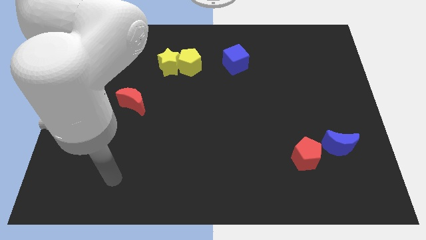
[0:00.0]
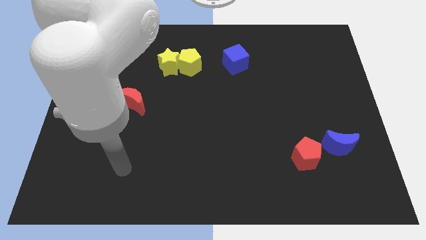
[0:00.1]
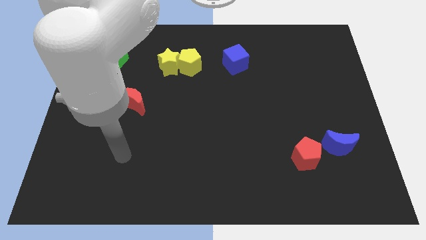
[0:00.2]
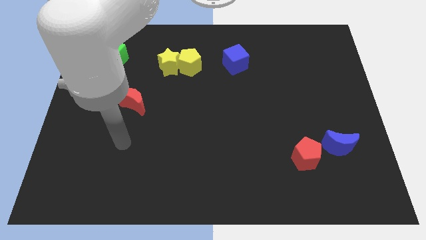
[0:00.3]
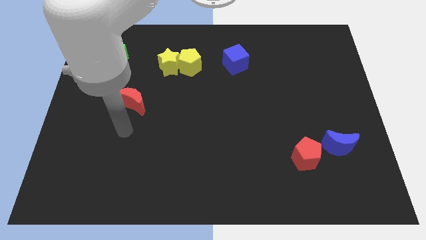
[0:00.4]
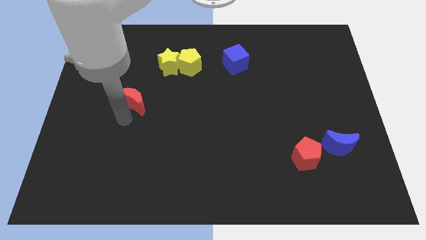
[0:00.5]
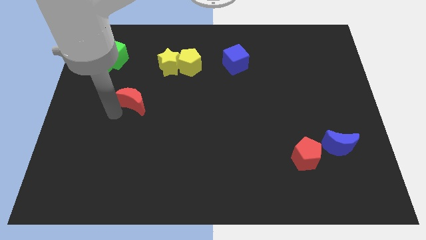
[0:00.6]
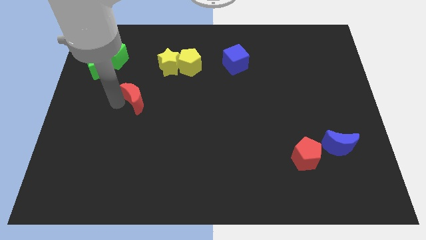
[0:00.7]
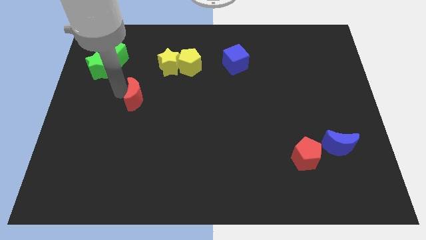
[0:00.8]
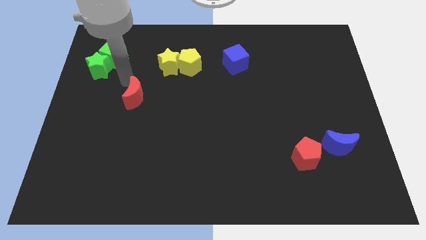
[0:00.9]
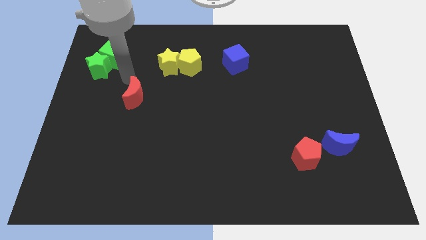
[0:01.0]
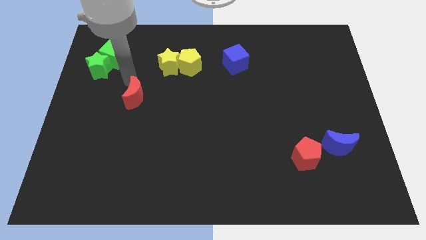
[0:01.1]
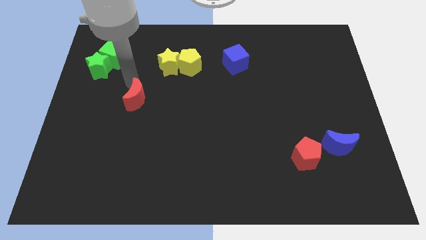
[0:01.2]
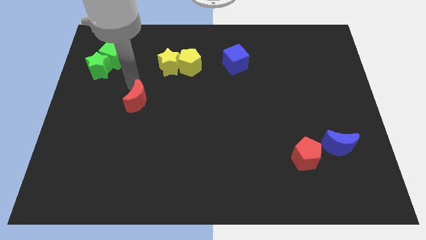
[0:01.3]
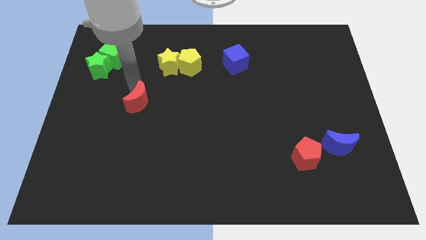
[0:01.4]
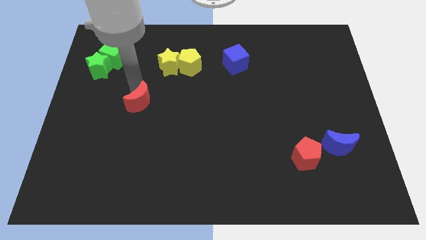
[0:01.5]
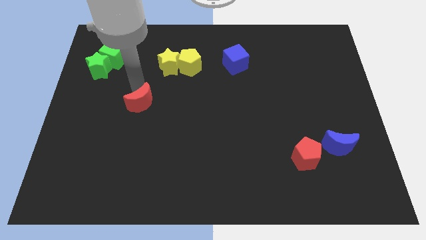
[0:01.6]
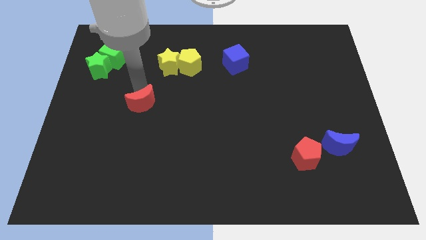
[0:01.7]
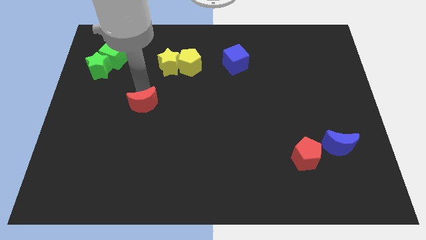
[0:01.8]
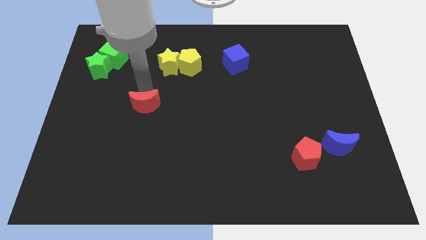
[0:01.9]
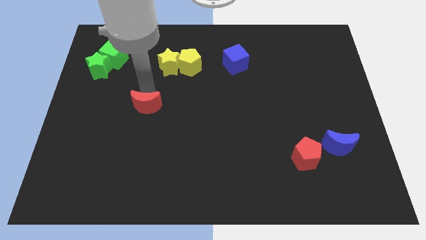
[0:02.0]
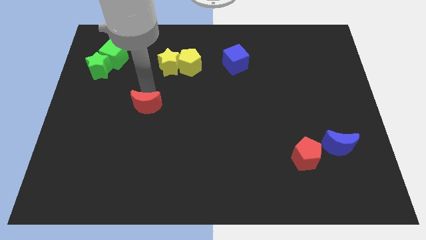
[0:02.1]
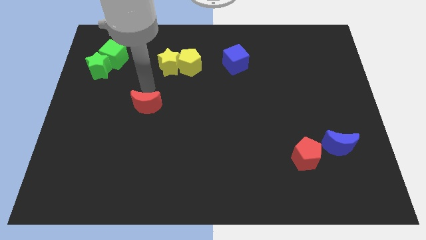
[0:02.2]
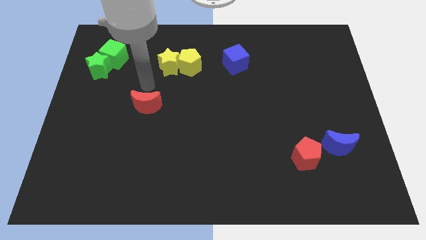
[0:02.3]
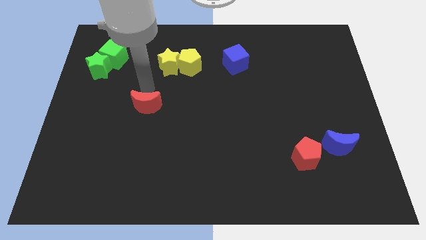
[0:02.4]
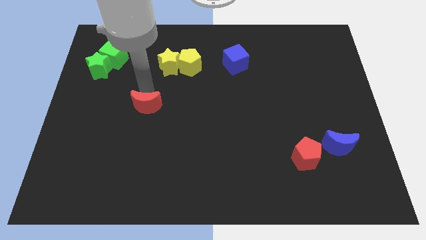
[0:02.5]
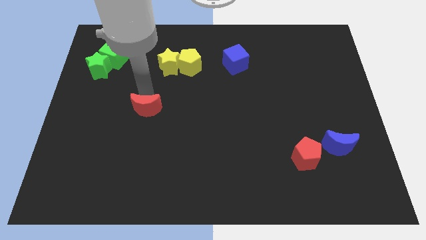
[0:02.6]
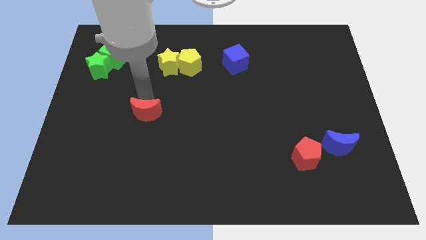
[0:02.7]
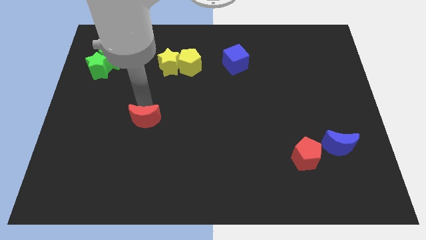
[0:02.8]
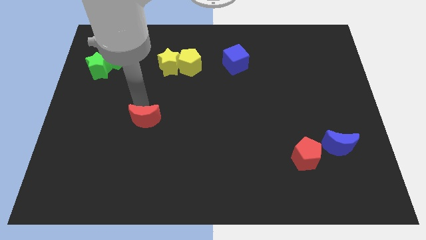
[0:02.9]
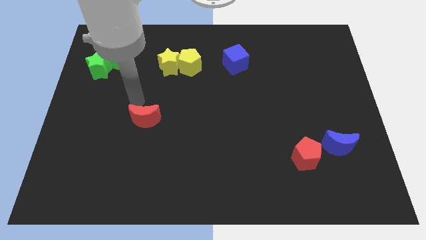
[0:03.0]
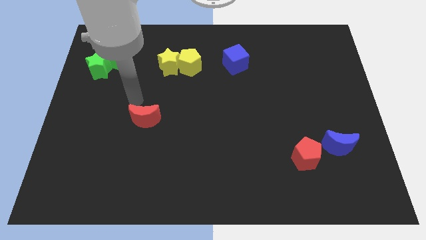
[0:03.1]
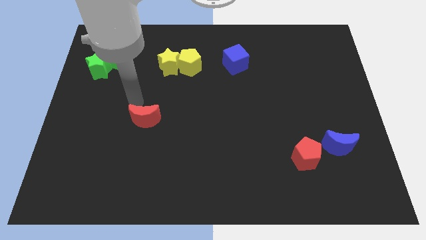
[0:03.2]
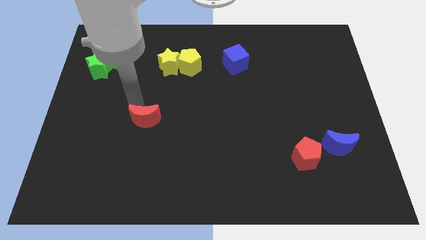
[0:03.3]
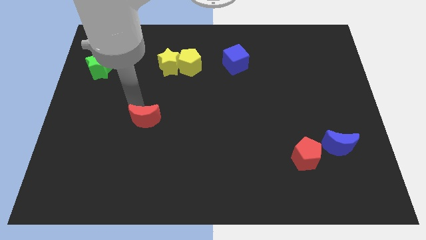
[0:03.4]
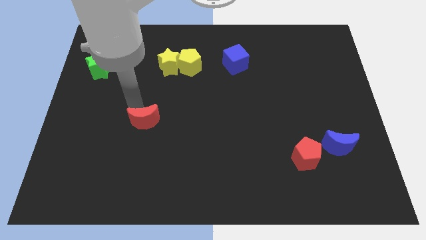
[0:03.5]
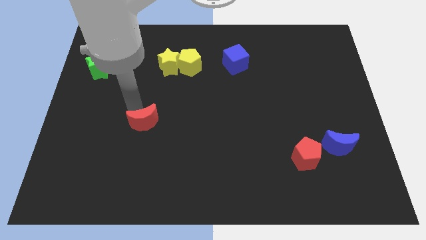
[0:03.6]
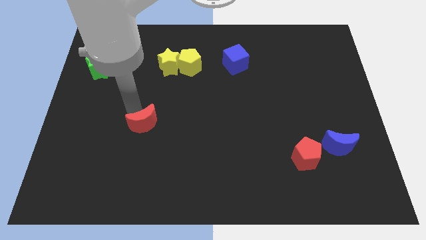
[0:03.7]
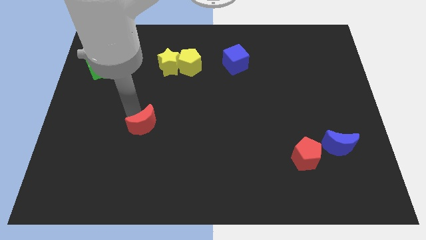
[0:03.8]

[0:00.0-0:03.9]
push the red moon down and right diagonally a bit

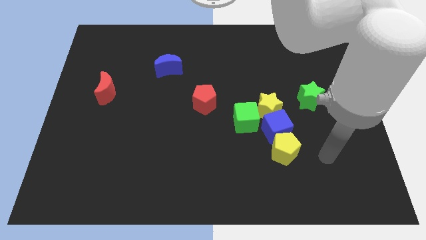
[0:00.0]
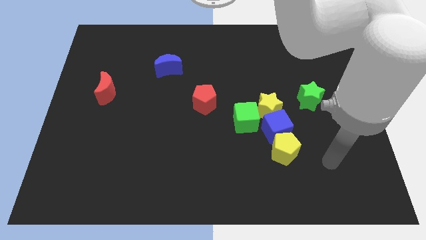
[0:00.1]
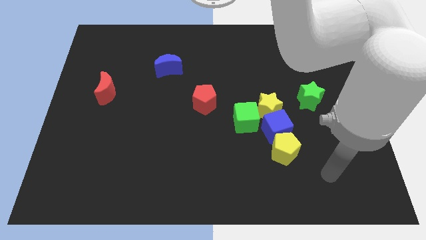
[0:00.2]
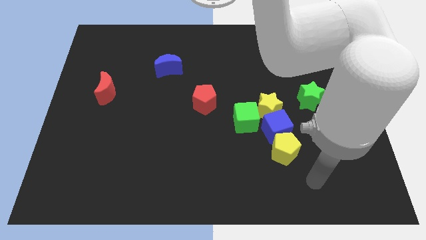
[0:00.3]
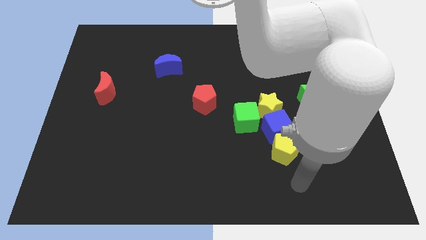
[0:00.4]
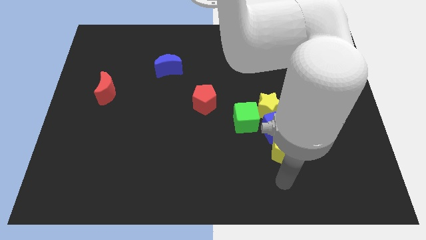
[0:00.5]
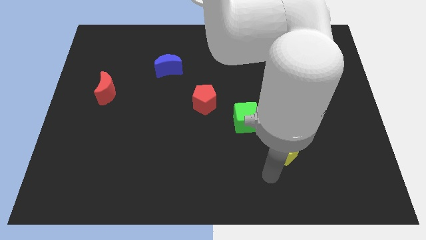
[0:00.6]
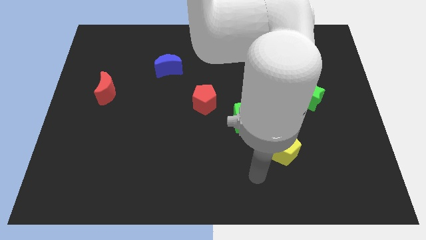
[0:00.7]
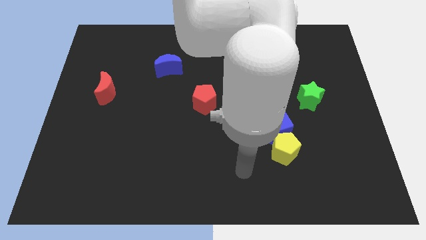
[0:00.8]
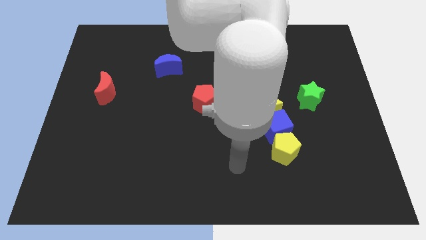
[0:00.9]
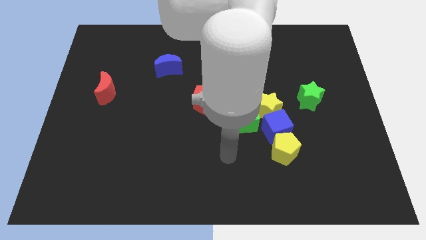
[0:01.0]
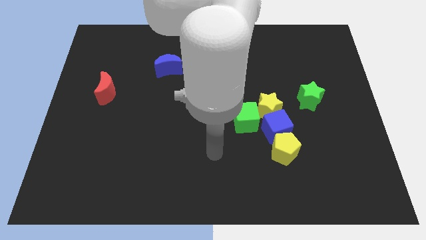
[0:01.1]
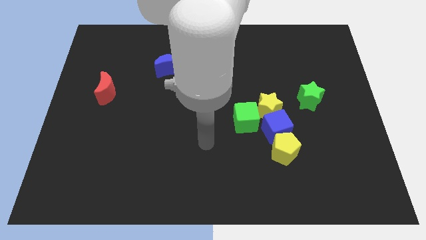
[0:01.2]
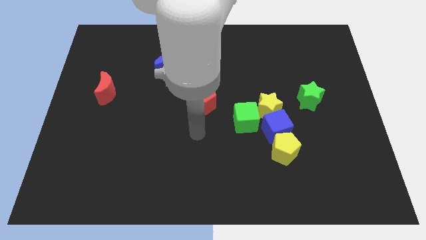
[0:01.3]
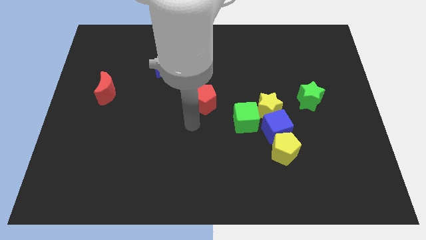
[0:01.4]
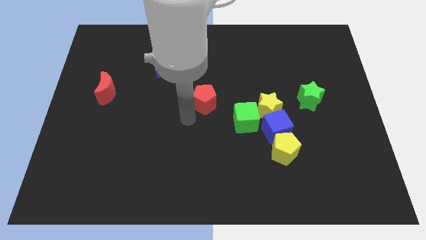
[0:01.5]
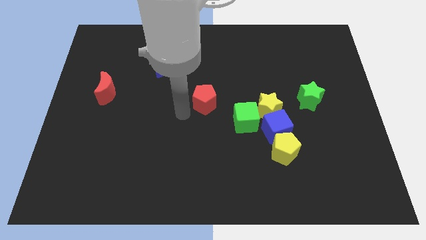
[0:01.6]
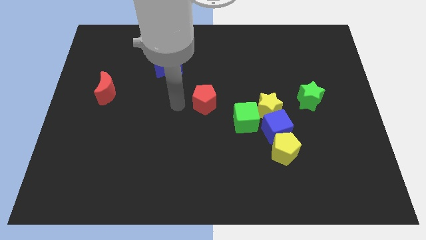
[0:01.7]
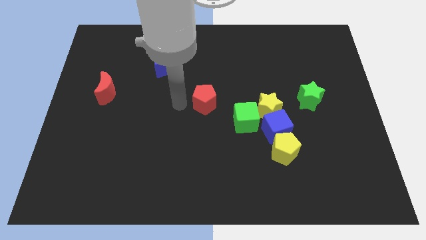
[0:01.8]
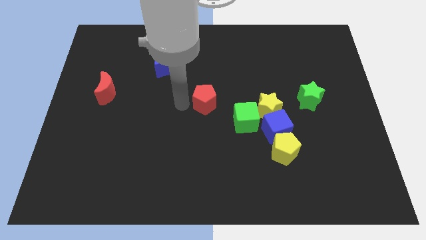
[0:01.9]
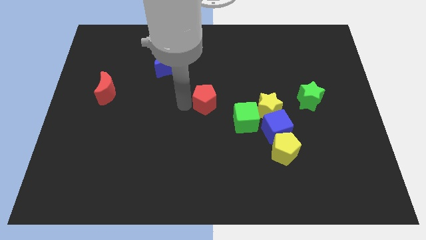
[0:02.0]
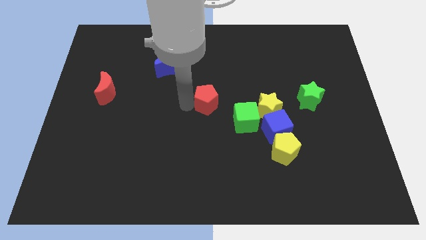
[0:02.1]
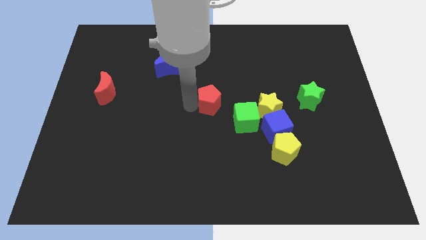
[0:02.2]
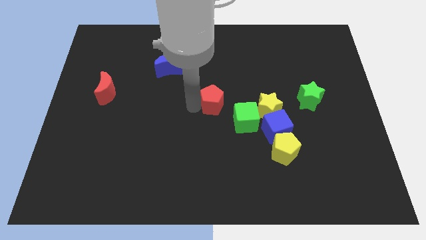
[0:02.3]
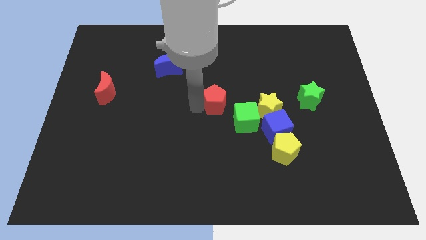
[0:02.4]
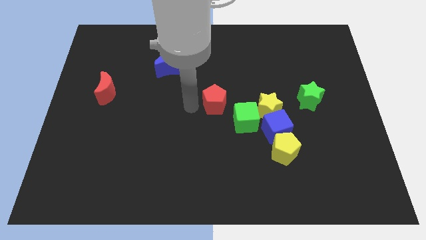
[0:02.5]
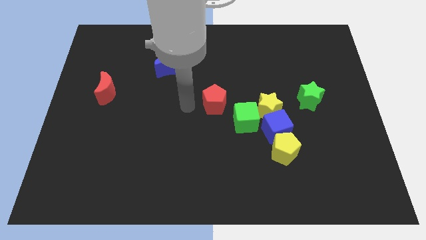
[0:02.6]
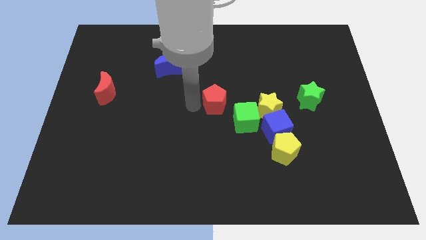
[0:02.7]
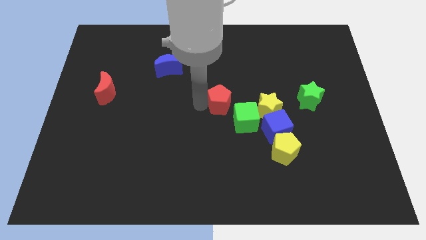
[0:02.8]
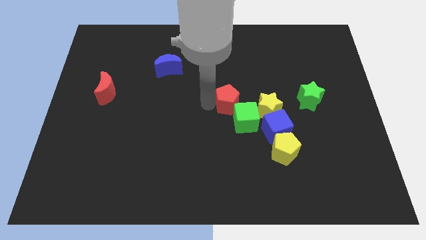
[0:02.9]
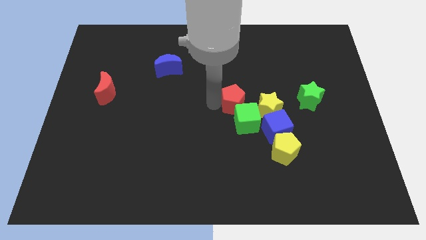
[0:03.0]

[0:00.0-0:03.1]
move the red pentagon a little bit right

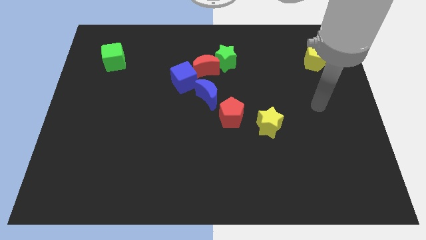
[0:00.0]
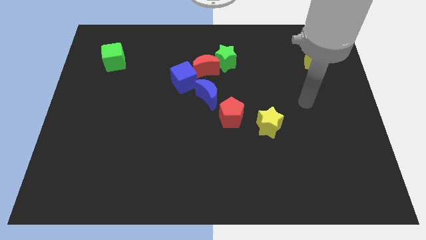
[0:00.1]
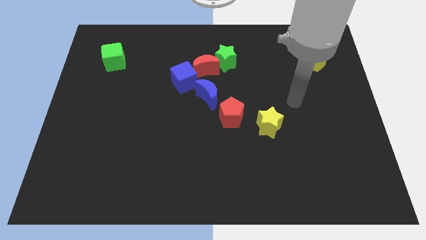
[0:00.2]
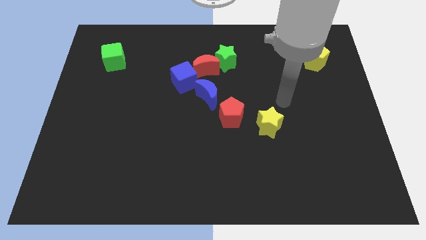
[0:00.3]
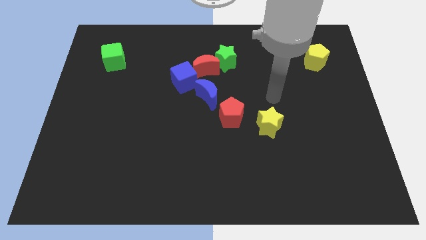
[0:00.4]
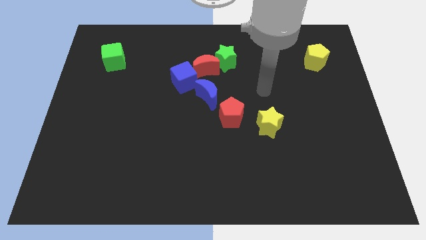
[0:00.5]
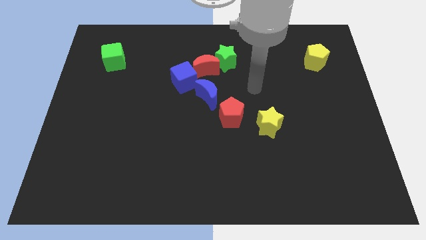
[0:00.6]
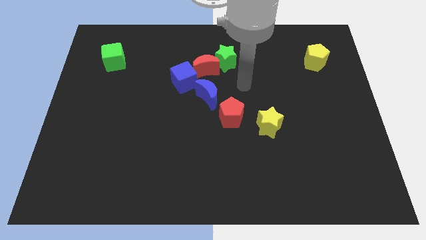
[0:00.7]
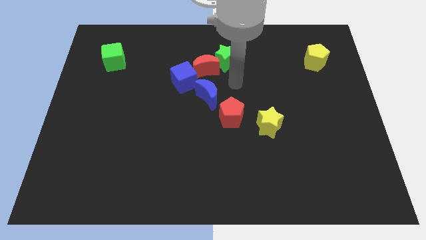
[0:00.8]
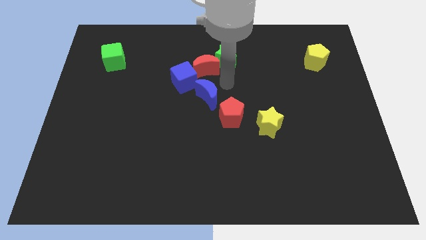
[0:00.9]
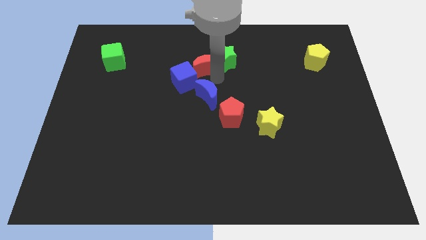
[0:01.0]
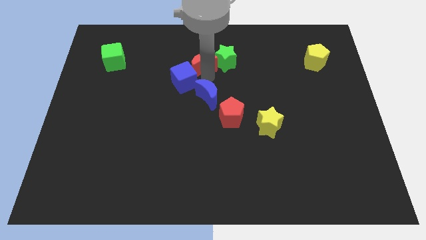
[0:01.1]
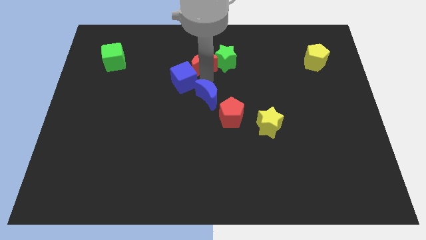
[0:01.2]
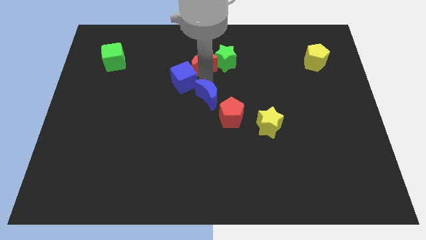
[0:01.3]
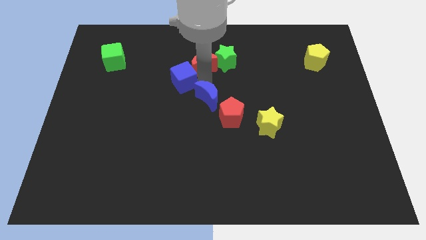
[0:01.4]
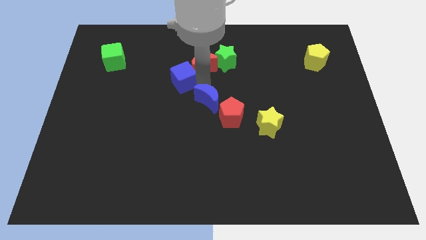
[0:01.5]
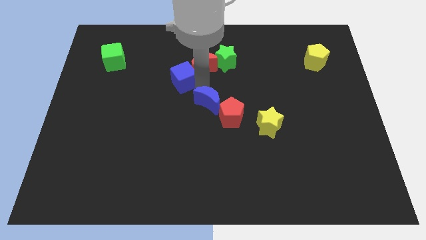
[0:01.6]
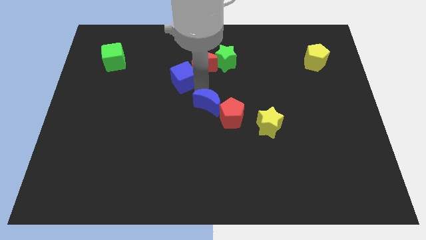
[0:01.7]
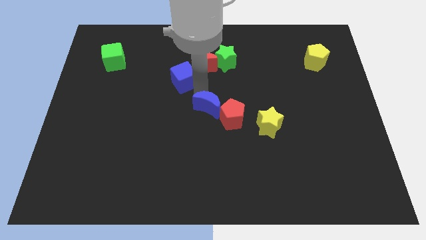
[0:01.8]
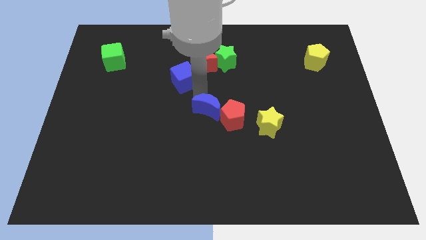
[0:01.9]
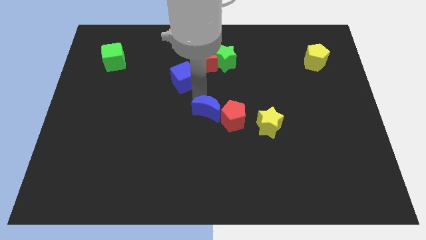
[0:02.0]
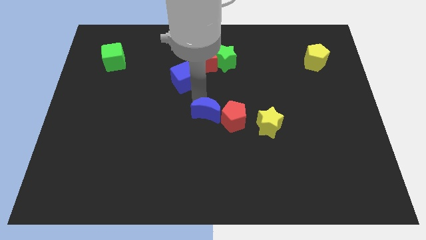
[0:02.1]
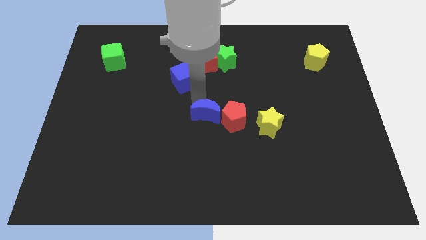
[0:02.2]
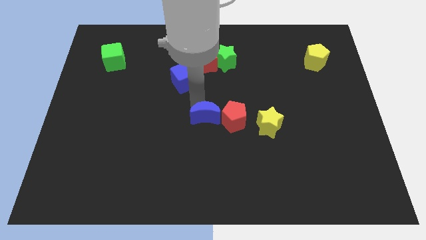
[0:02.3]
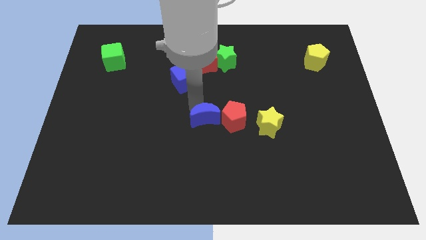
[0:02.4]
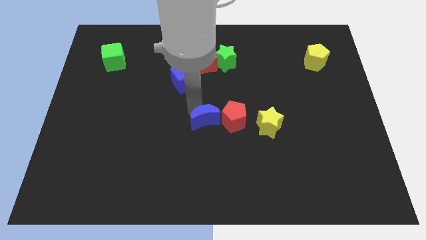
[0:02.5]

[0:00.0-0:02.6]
slightly push the blue moon down
